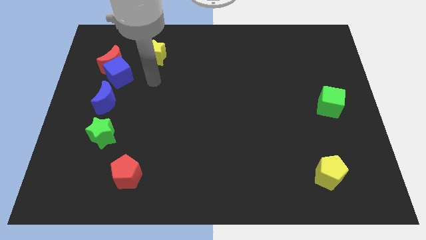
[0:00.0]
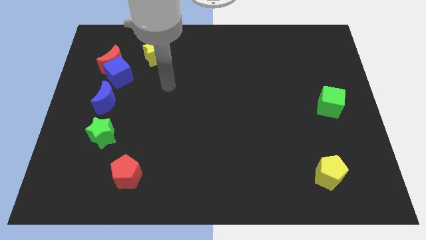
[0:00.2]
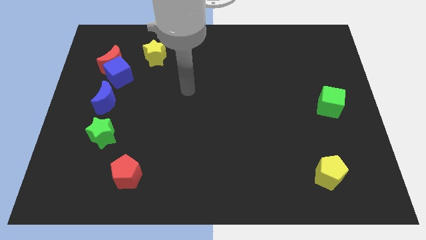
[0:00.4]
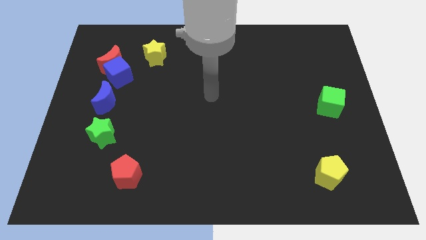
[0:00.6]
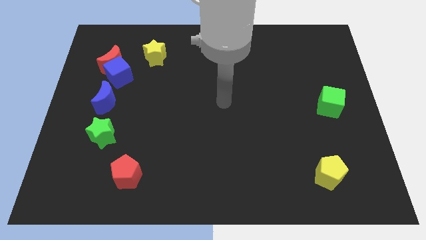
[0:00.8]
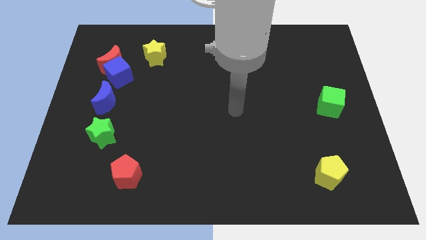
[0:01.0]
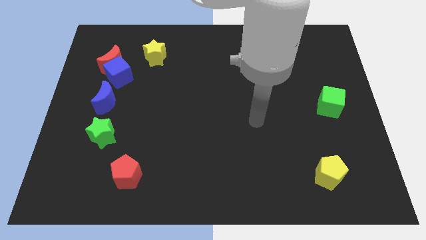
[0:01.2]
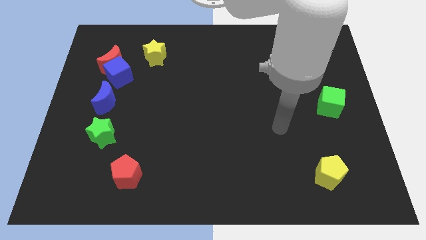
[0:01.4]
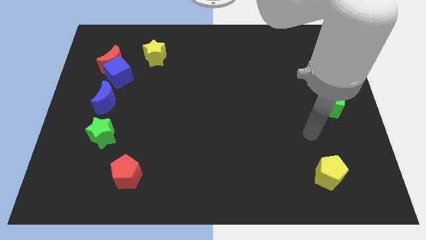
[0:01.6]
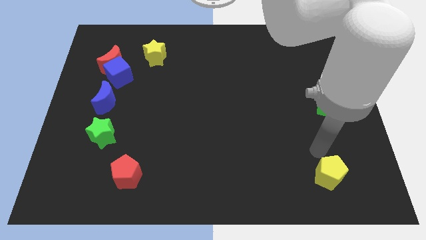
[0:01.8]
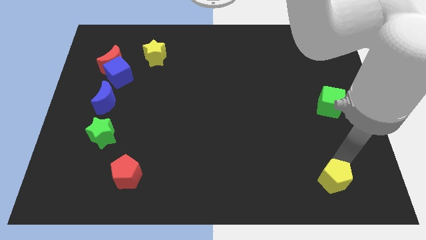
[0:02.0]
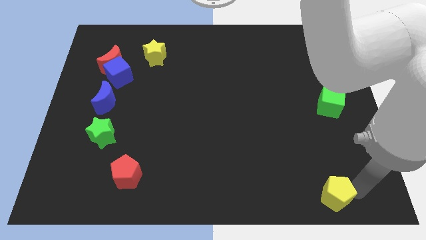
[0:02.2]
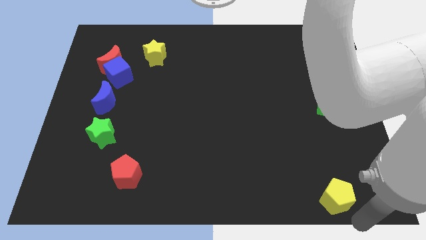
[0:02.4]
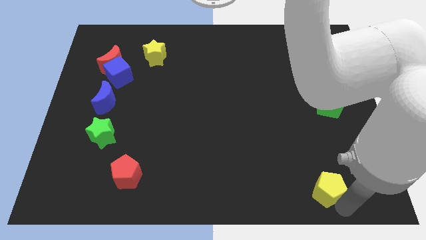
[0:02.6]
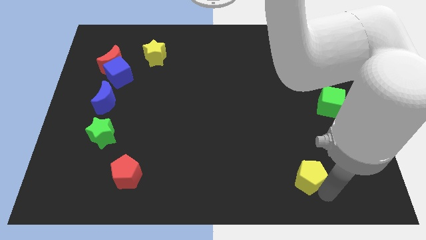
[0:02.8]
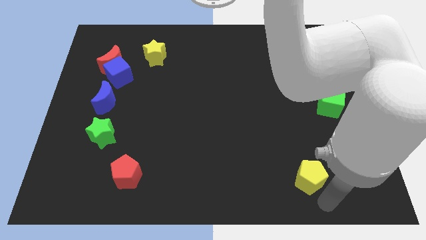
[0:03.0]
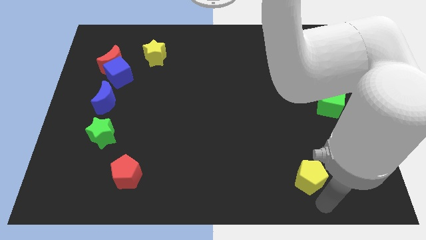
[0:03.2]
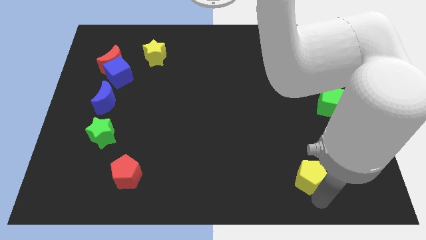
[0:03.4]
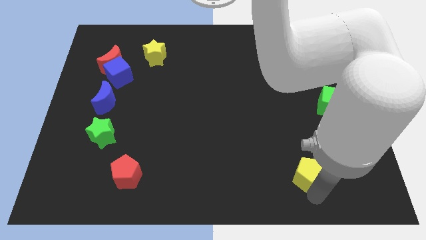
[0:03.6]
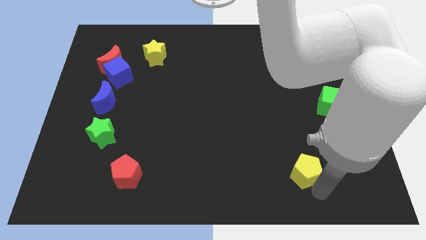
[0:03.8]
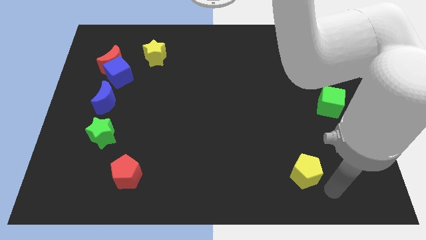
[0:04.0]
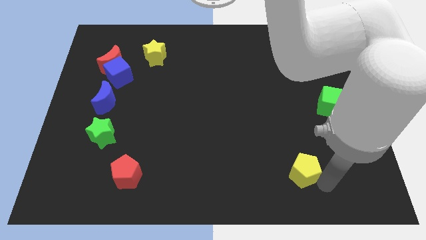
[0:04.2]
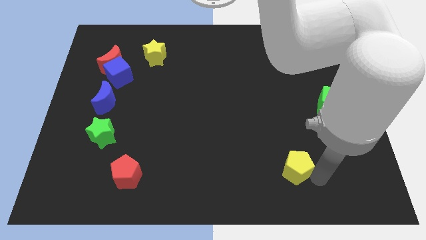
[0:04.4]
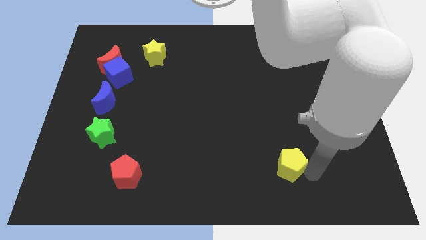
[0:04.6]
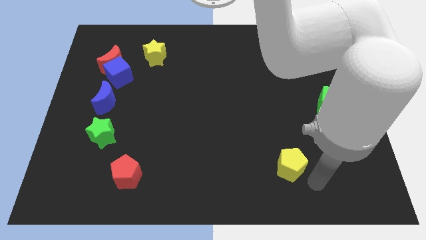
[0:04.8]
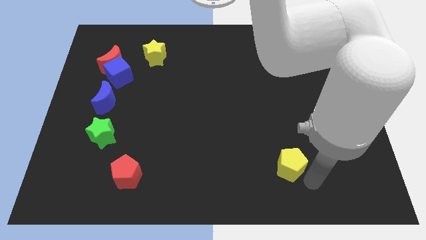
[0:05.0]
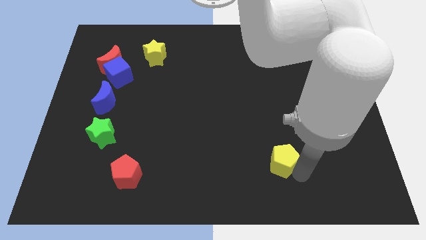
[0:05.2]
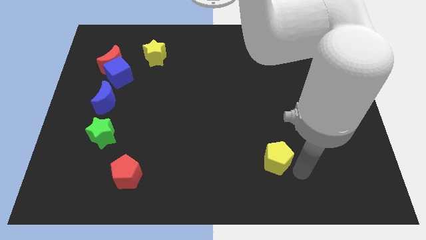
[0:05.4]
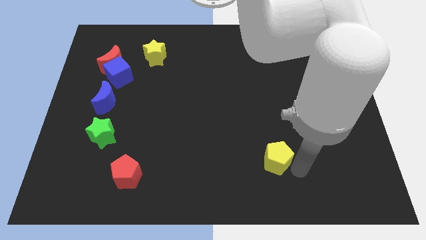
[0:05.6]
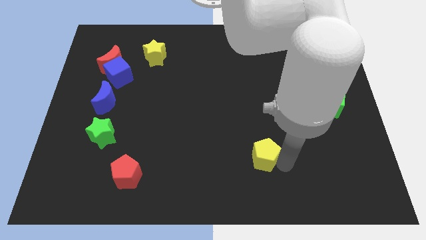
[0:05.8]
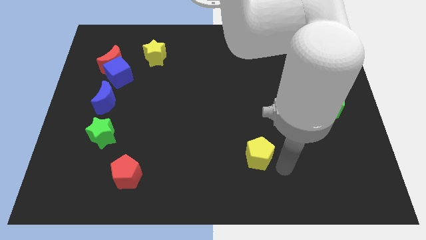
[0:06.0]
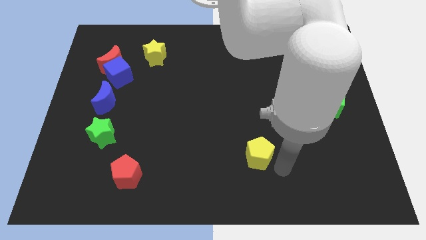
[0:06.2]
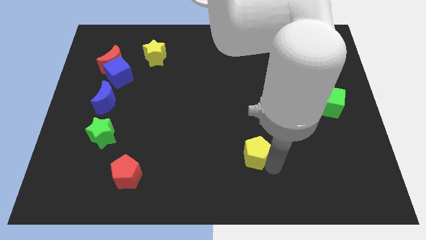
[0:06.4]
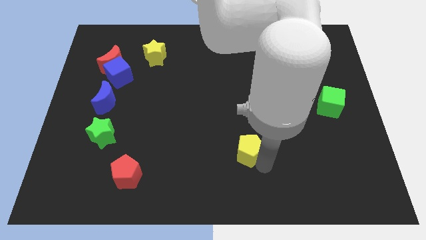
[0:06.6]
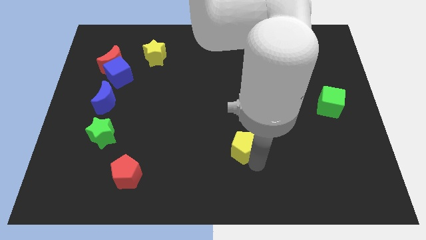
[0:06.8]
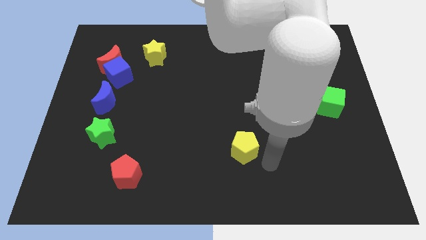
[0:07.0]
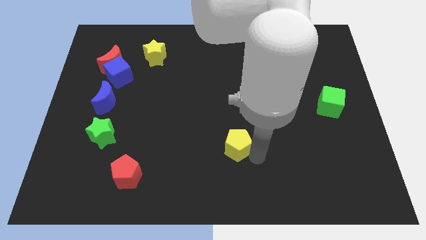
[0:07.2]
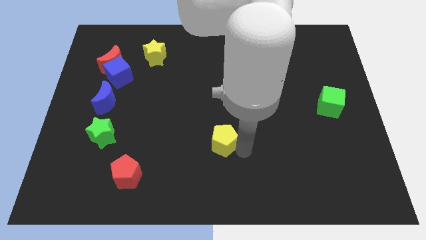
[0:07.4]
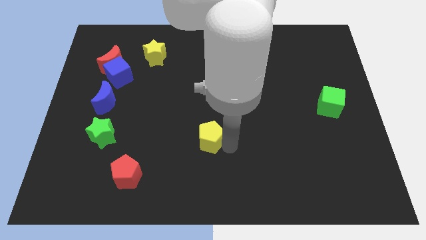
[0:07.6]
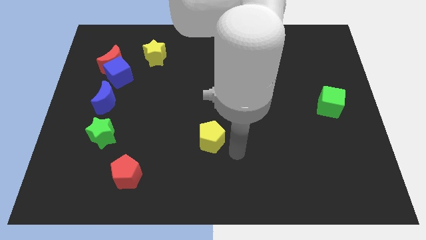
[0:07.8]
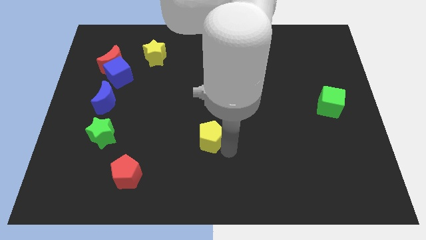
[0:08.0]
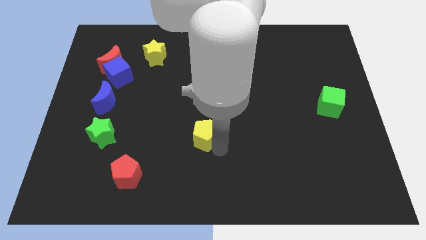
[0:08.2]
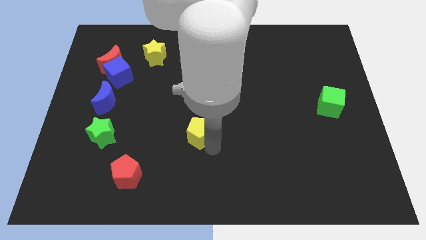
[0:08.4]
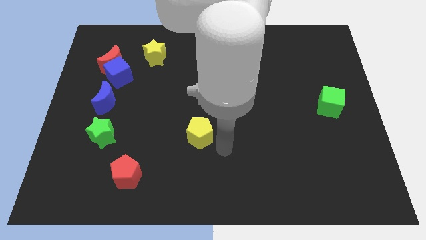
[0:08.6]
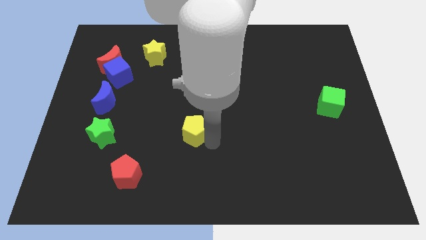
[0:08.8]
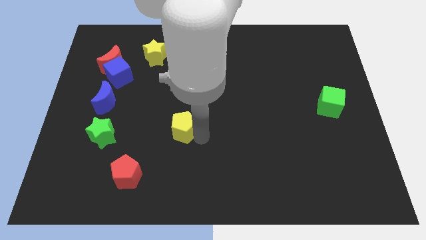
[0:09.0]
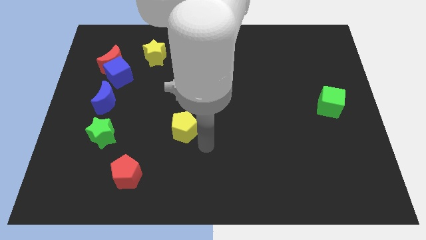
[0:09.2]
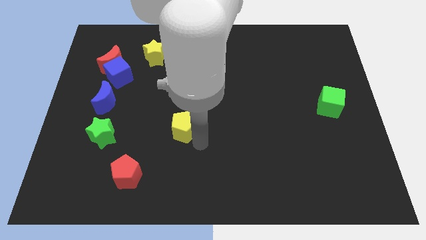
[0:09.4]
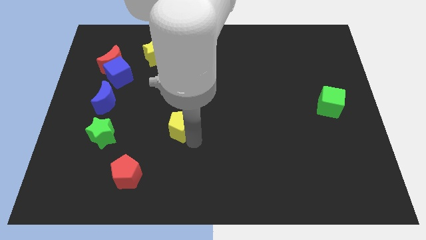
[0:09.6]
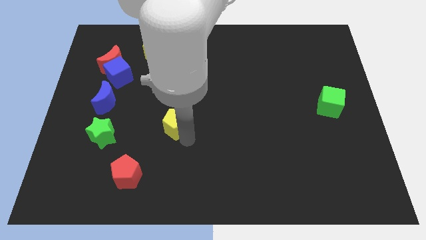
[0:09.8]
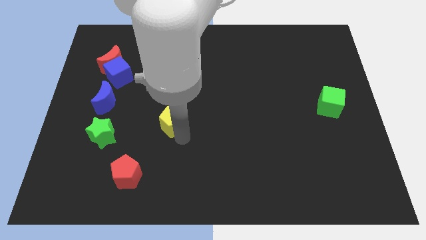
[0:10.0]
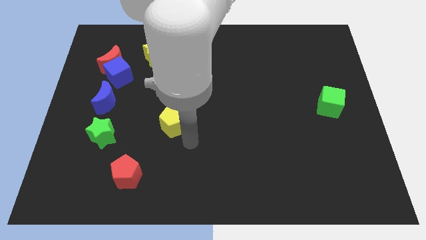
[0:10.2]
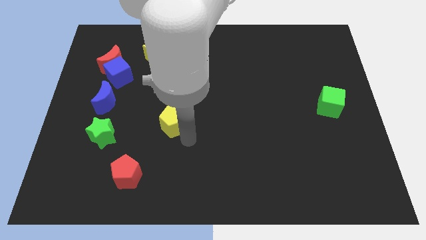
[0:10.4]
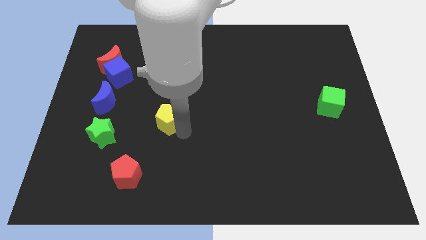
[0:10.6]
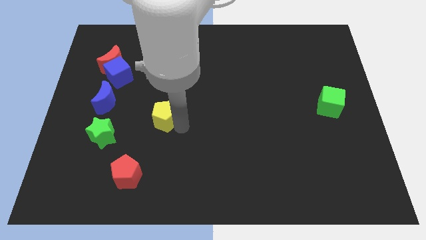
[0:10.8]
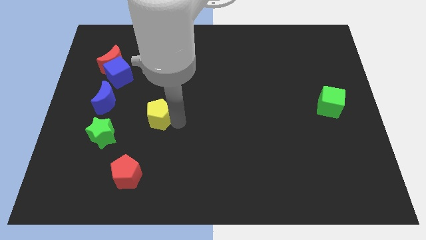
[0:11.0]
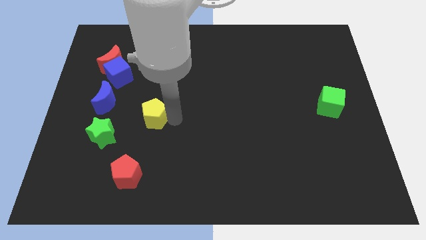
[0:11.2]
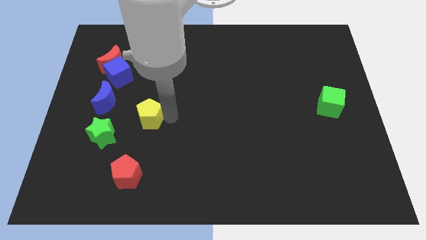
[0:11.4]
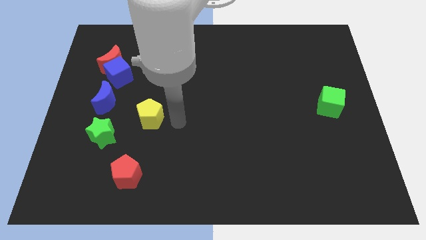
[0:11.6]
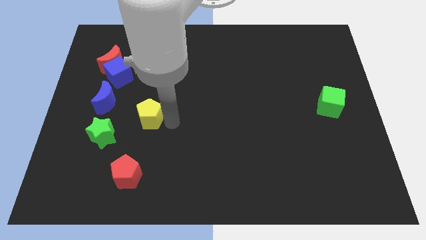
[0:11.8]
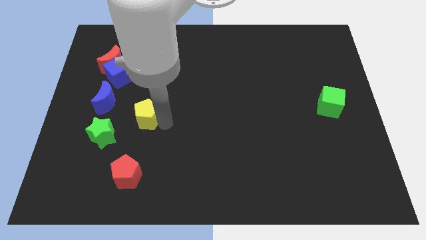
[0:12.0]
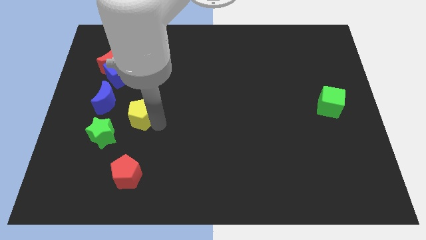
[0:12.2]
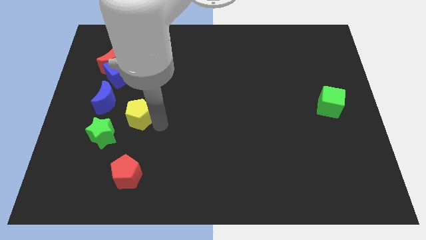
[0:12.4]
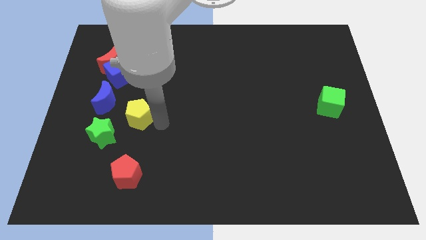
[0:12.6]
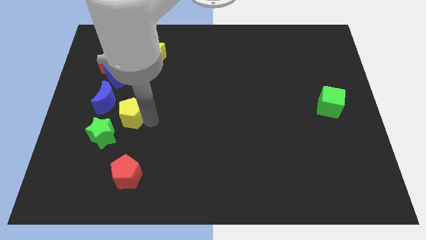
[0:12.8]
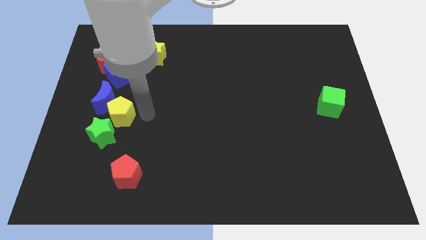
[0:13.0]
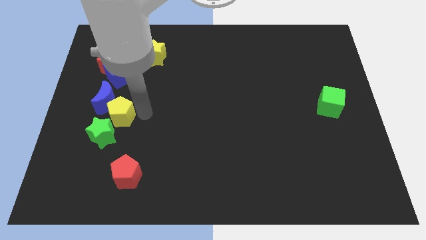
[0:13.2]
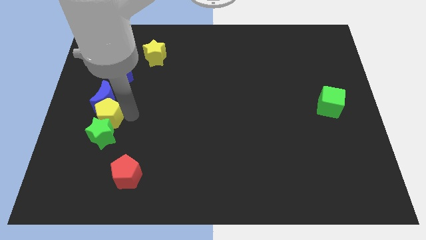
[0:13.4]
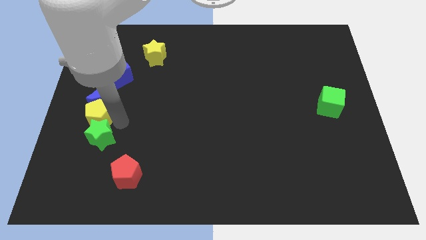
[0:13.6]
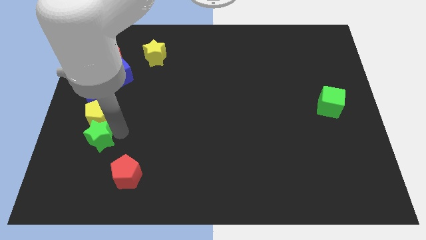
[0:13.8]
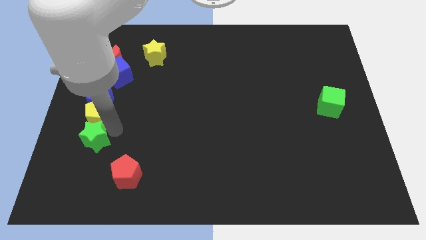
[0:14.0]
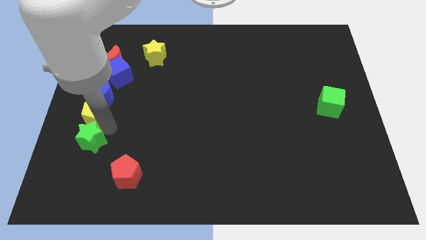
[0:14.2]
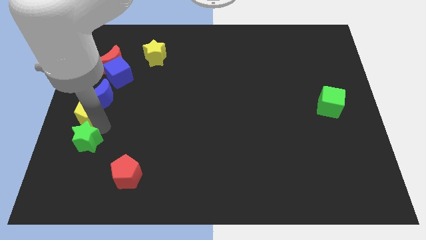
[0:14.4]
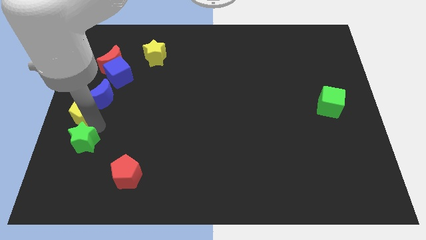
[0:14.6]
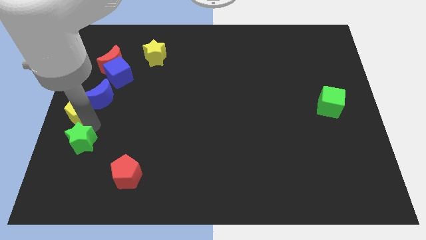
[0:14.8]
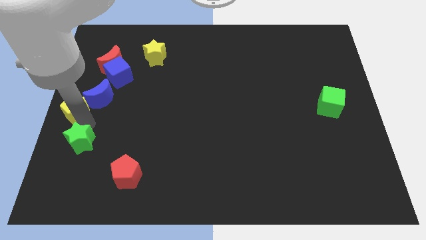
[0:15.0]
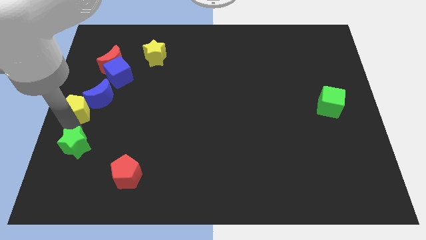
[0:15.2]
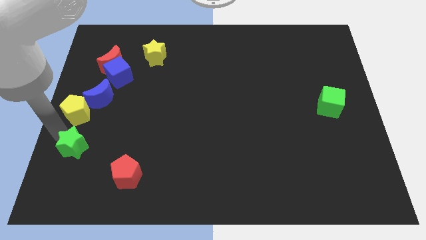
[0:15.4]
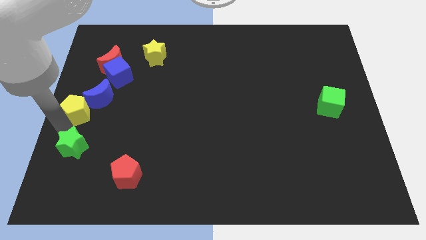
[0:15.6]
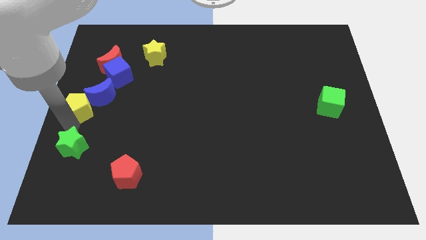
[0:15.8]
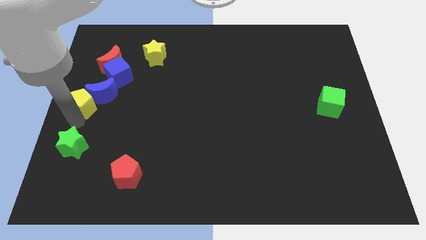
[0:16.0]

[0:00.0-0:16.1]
slide the yellow pentagon to the bottom left side of the blue cube
